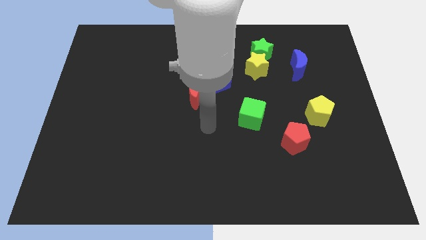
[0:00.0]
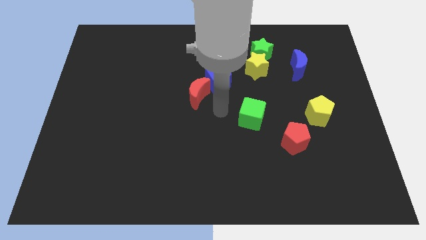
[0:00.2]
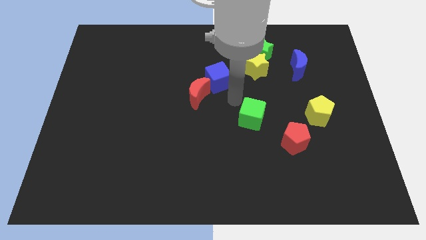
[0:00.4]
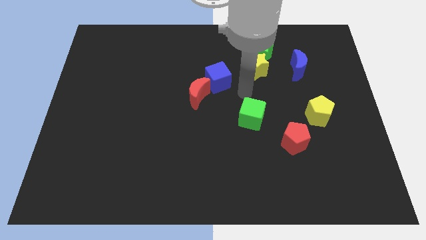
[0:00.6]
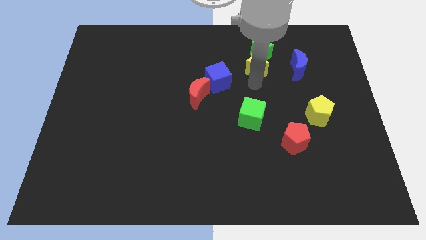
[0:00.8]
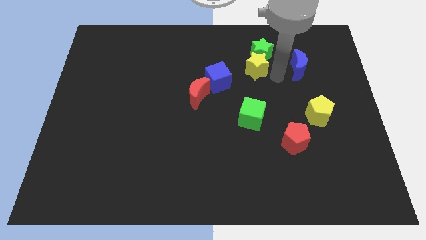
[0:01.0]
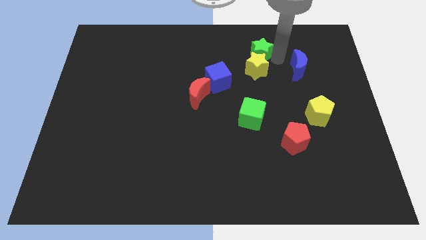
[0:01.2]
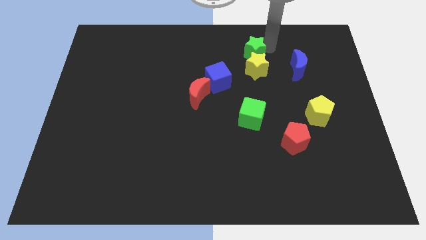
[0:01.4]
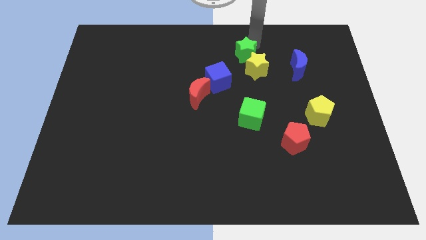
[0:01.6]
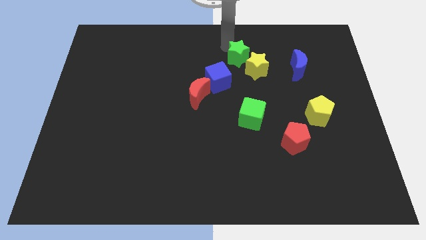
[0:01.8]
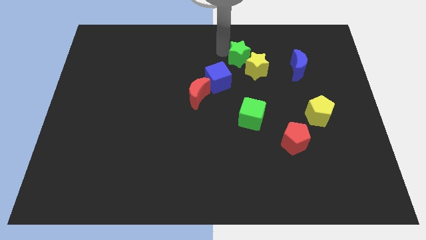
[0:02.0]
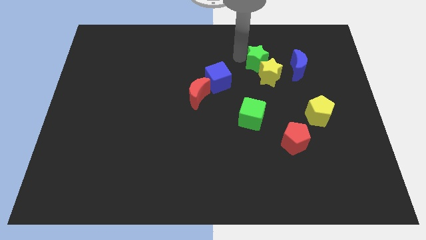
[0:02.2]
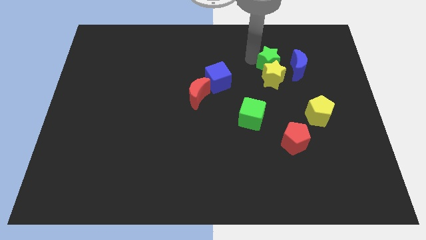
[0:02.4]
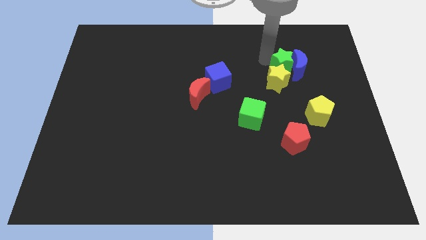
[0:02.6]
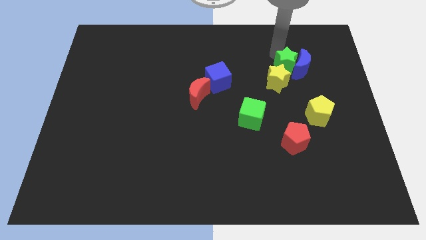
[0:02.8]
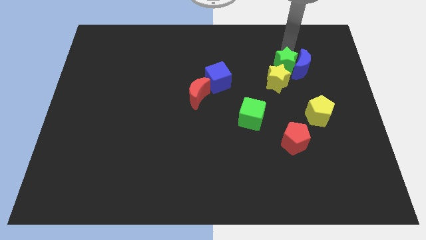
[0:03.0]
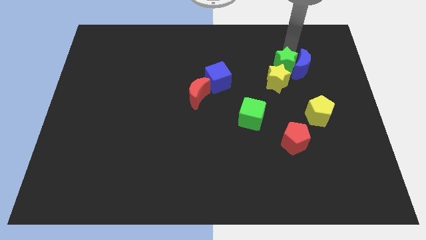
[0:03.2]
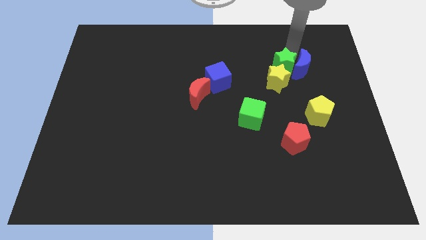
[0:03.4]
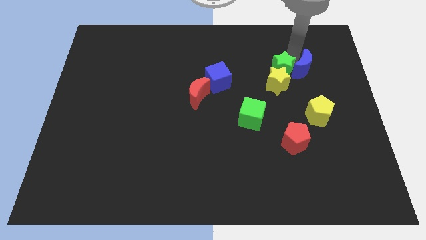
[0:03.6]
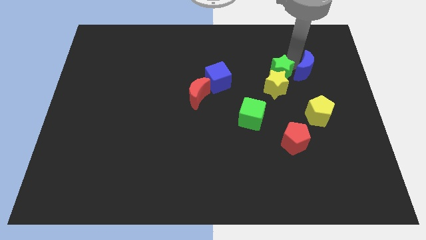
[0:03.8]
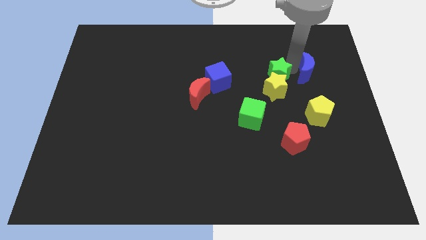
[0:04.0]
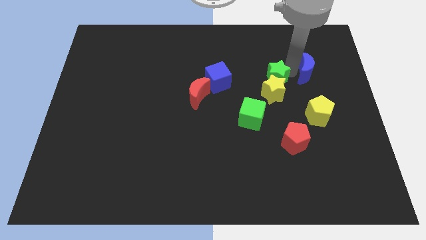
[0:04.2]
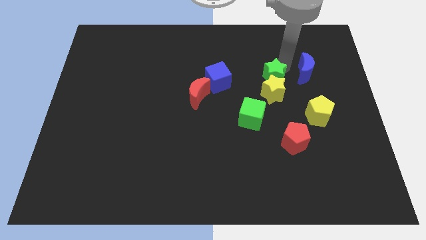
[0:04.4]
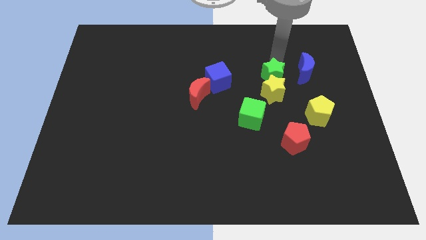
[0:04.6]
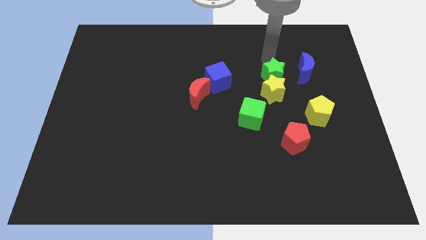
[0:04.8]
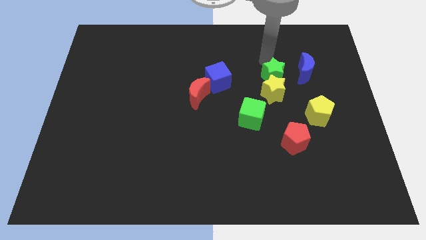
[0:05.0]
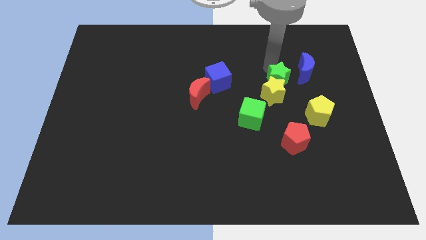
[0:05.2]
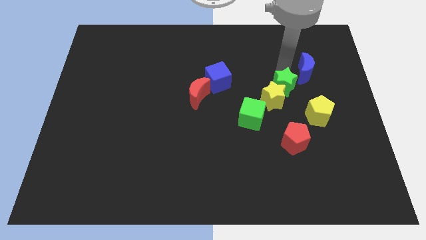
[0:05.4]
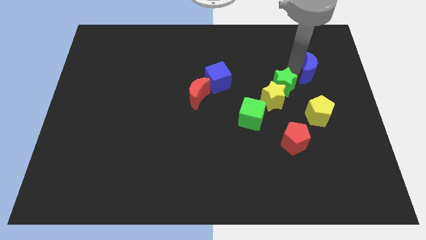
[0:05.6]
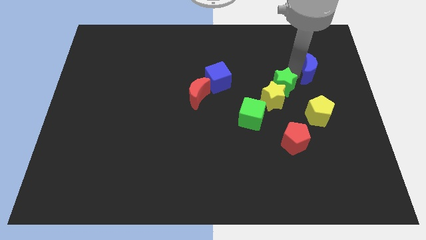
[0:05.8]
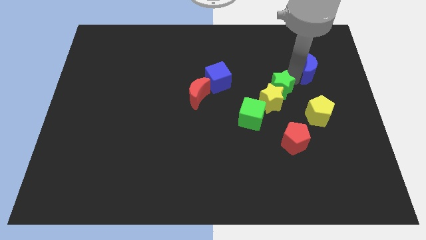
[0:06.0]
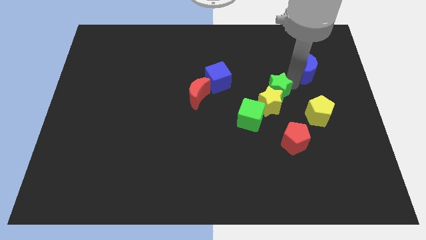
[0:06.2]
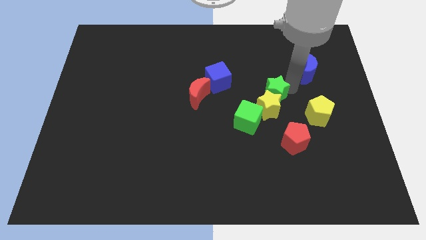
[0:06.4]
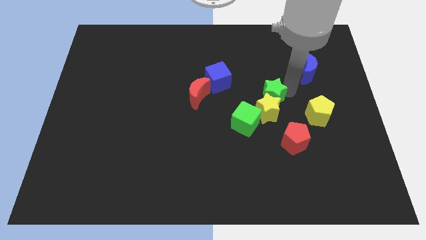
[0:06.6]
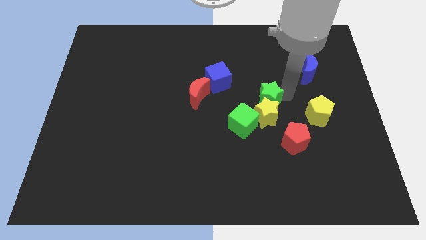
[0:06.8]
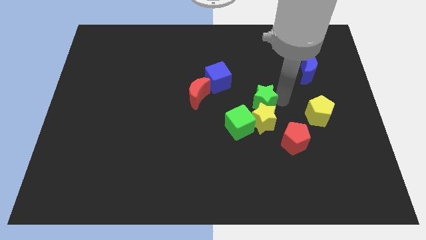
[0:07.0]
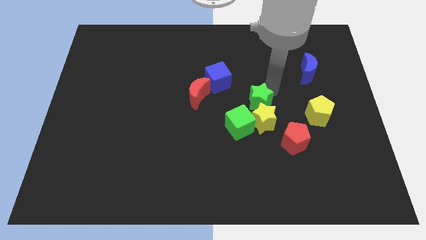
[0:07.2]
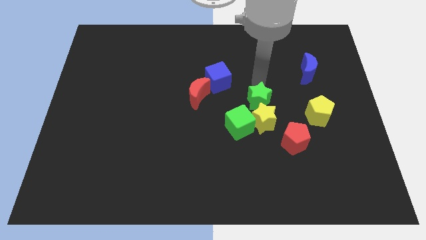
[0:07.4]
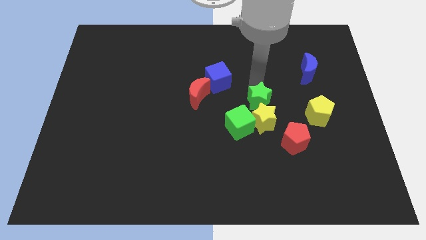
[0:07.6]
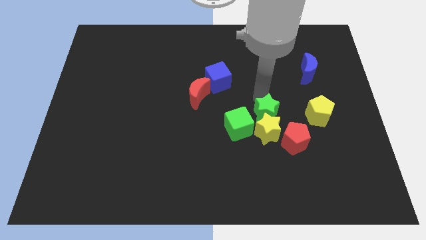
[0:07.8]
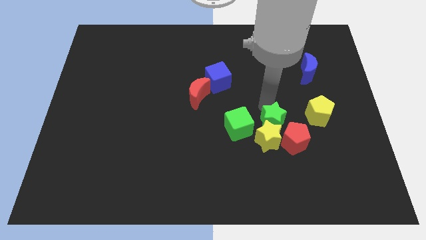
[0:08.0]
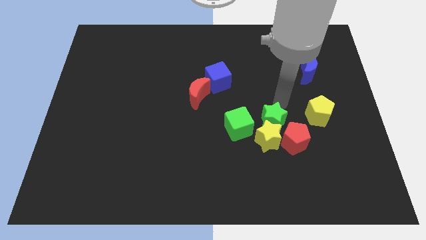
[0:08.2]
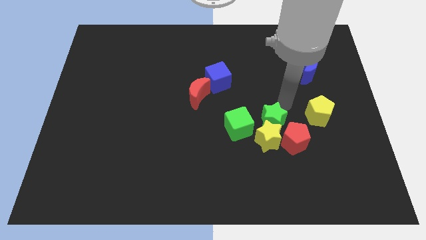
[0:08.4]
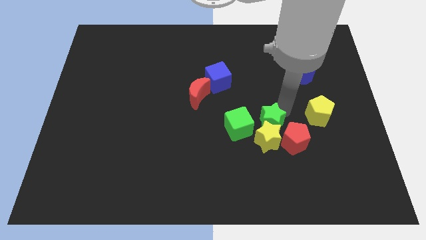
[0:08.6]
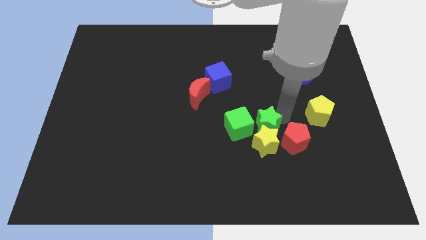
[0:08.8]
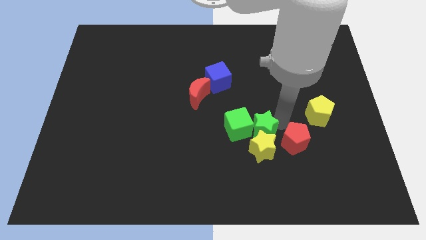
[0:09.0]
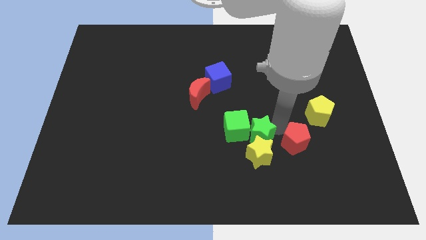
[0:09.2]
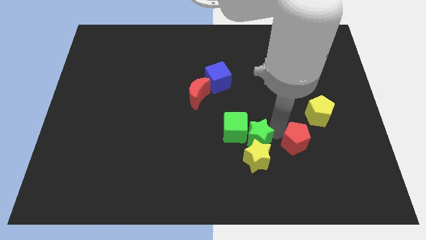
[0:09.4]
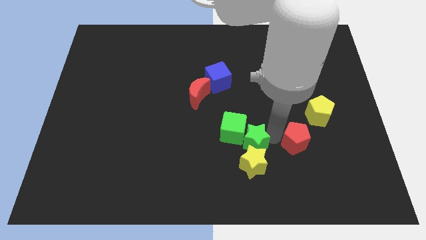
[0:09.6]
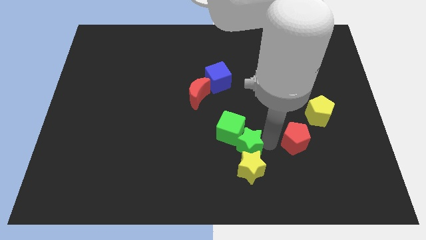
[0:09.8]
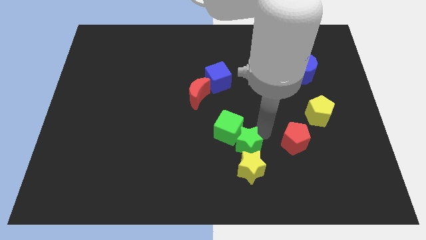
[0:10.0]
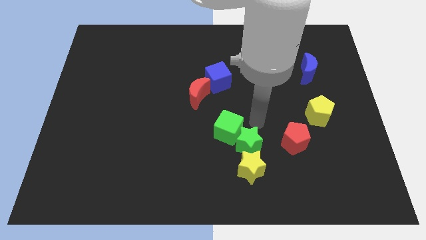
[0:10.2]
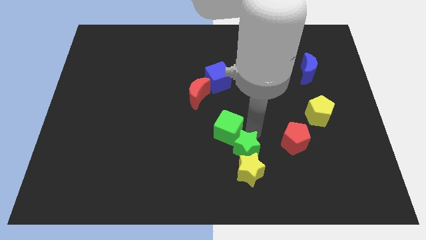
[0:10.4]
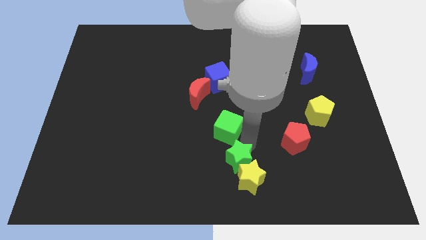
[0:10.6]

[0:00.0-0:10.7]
push the green star to the bottom
